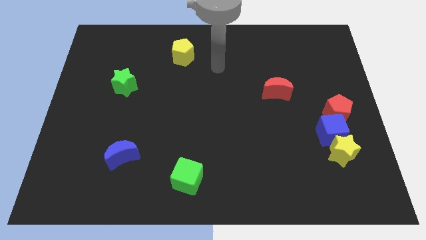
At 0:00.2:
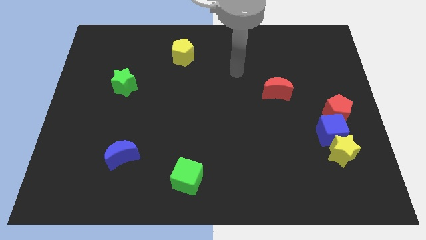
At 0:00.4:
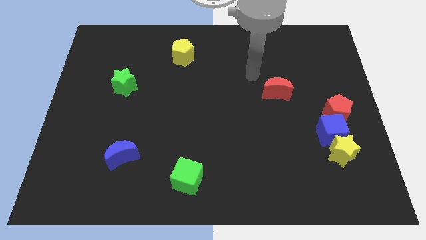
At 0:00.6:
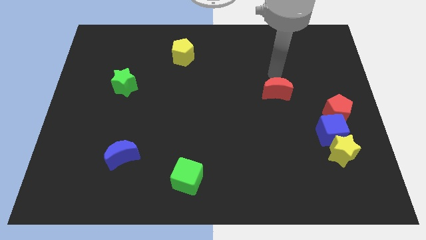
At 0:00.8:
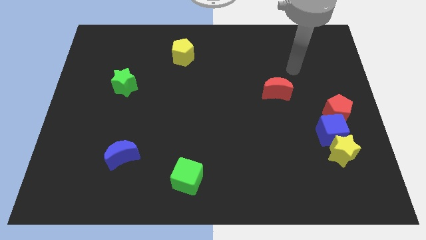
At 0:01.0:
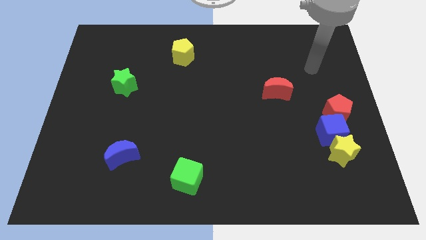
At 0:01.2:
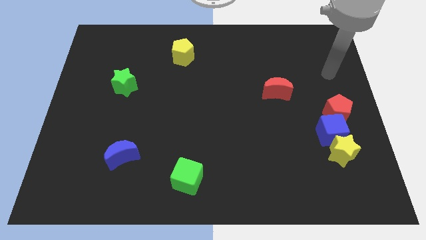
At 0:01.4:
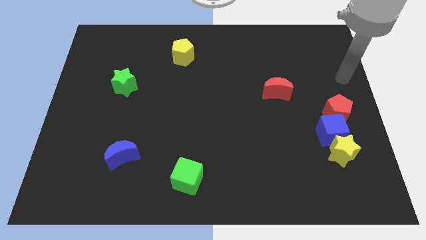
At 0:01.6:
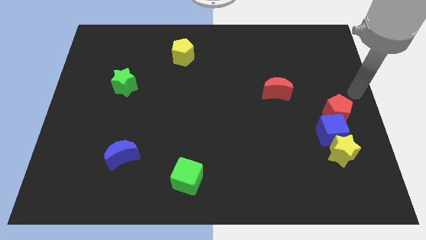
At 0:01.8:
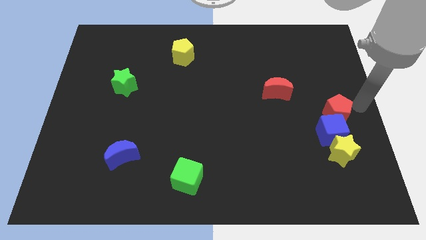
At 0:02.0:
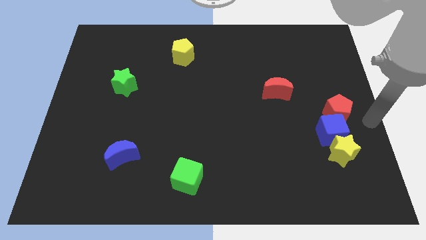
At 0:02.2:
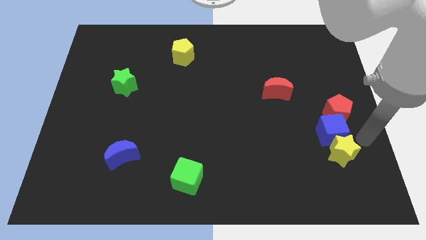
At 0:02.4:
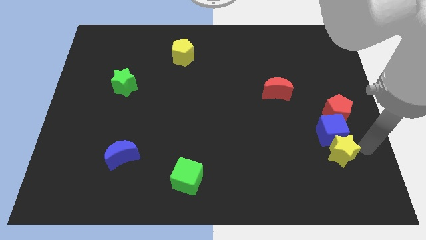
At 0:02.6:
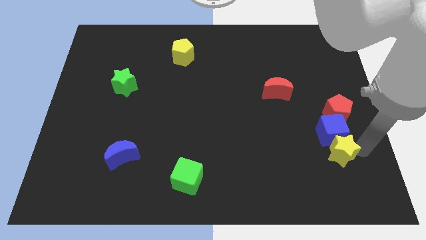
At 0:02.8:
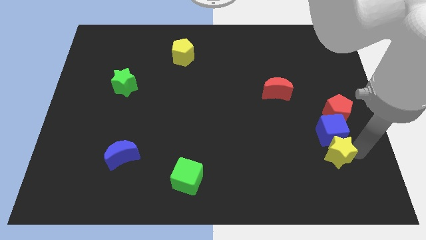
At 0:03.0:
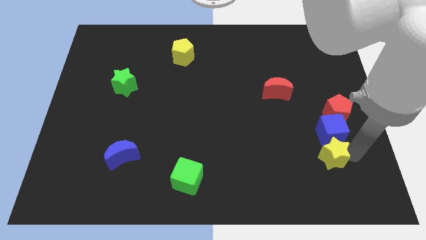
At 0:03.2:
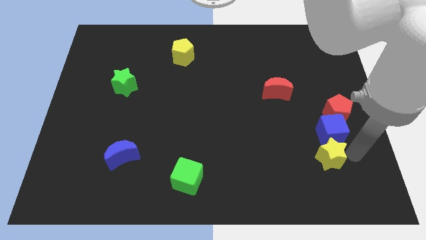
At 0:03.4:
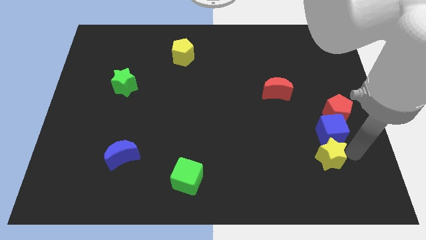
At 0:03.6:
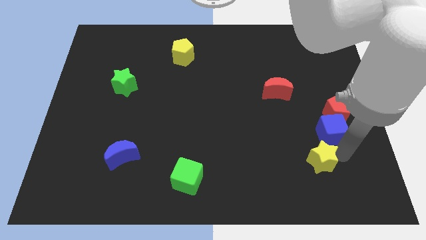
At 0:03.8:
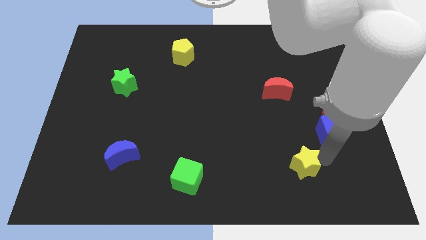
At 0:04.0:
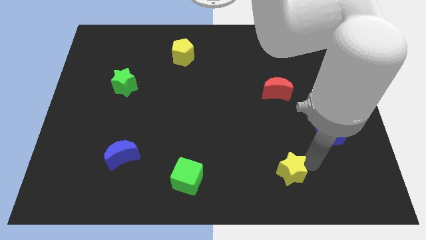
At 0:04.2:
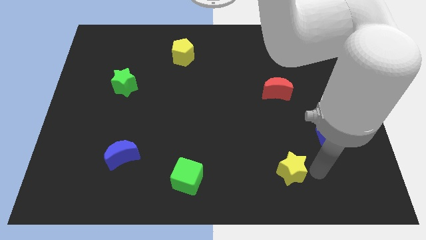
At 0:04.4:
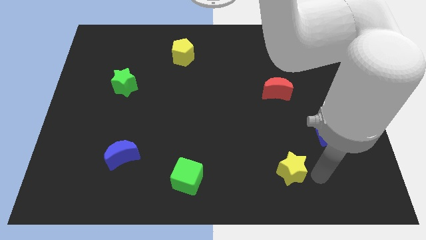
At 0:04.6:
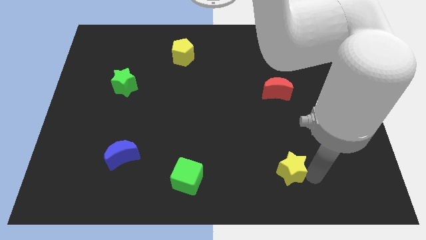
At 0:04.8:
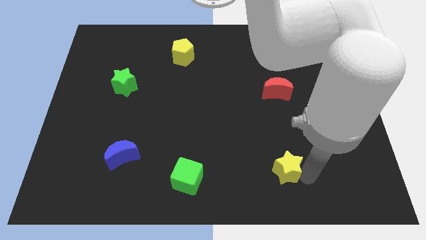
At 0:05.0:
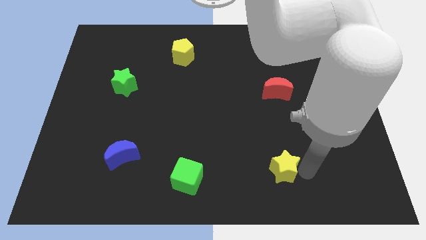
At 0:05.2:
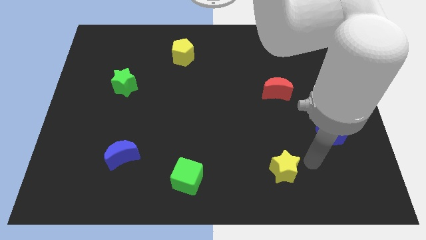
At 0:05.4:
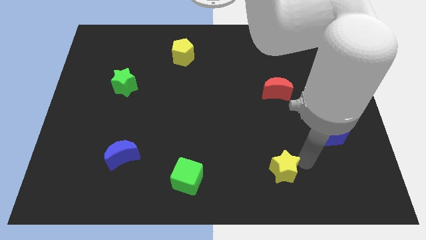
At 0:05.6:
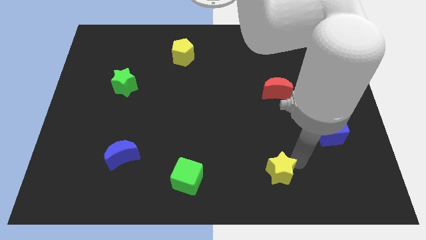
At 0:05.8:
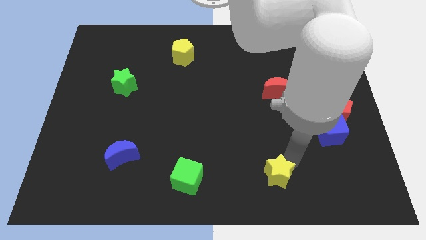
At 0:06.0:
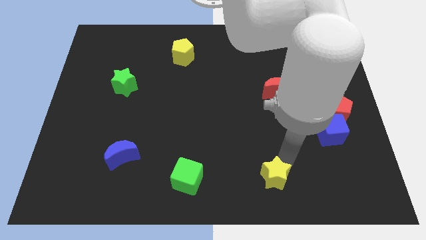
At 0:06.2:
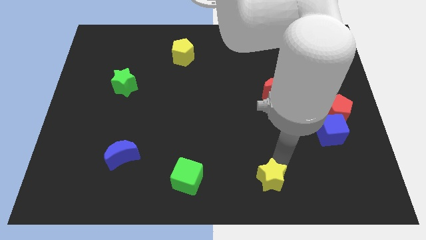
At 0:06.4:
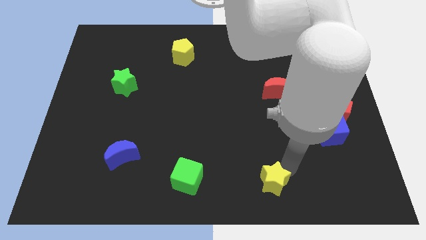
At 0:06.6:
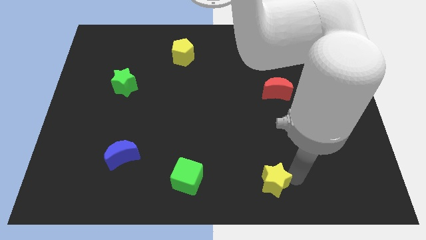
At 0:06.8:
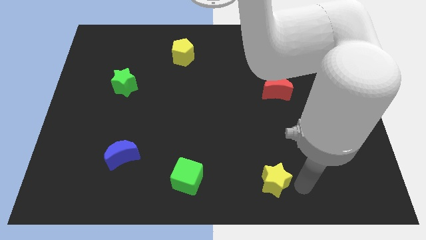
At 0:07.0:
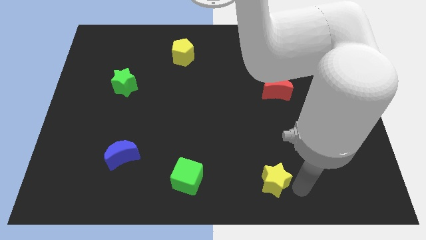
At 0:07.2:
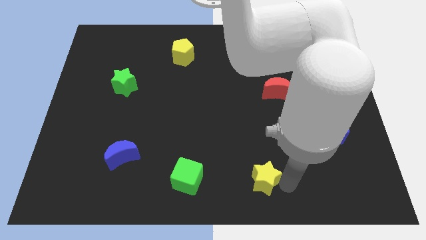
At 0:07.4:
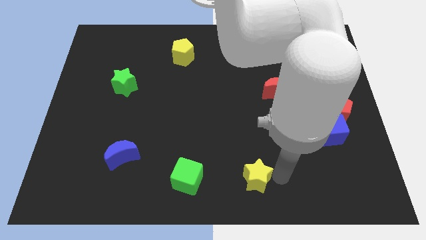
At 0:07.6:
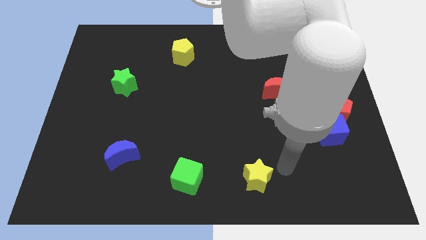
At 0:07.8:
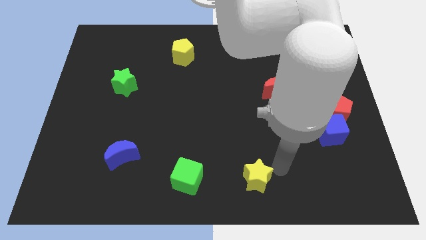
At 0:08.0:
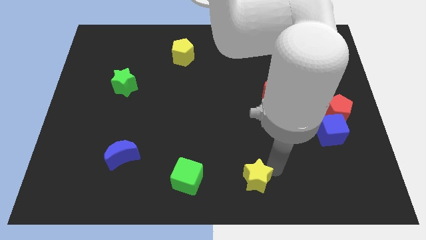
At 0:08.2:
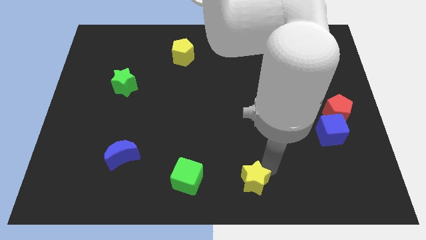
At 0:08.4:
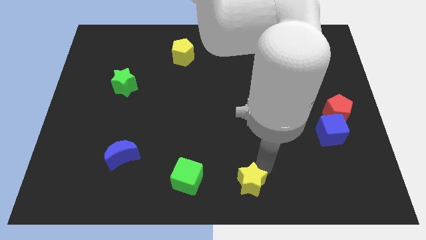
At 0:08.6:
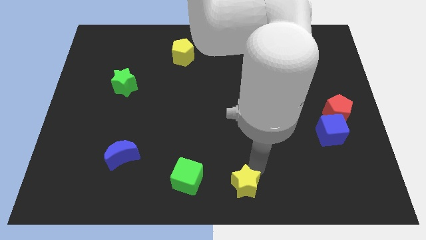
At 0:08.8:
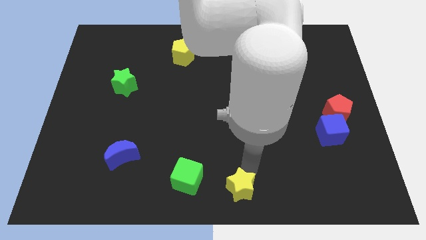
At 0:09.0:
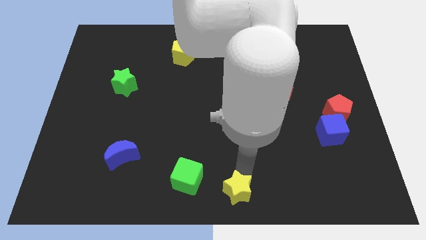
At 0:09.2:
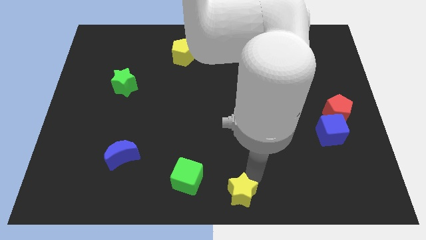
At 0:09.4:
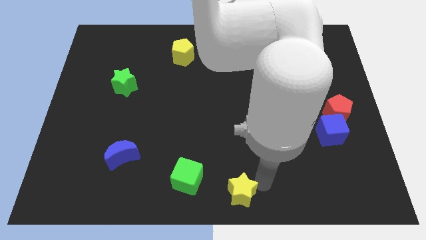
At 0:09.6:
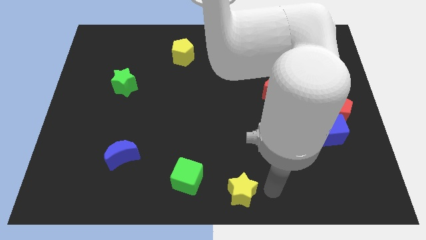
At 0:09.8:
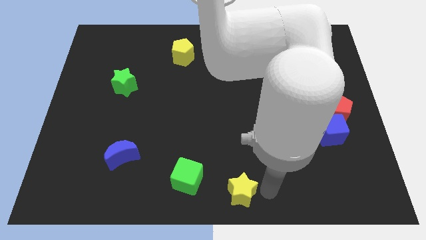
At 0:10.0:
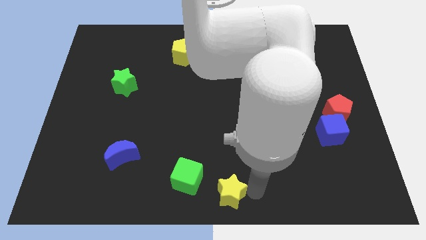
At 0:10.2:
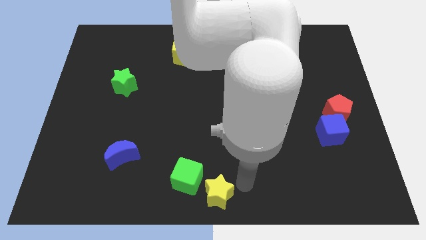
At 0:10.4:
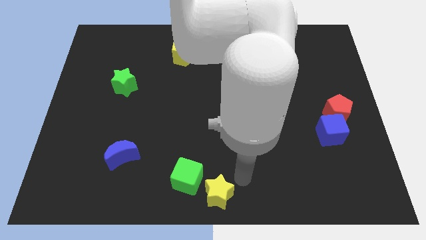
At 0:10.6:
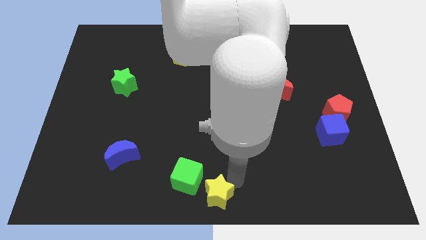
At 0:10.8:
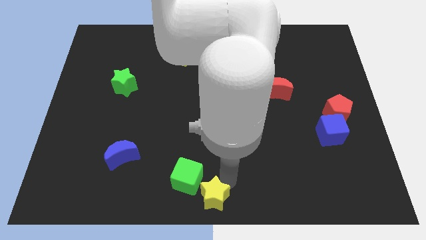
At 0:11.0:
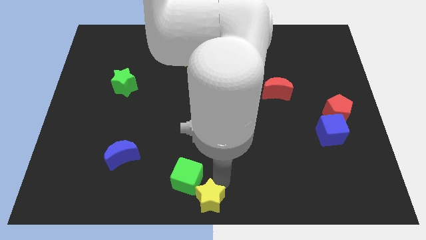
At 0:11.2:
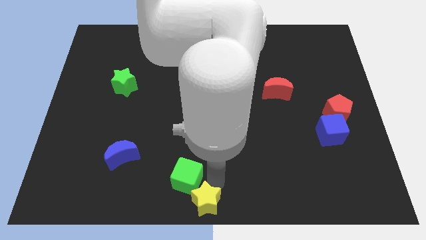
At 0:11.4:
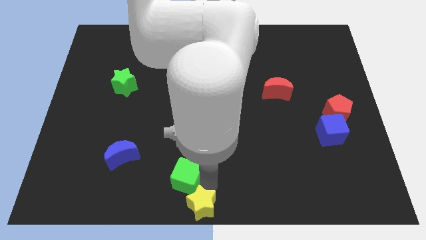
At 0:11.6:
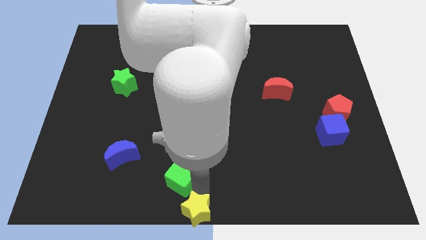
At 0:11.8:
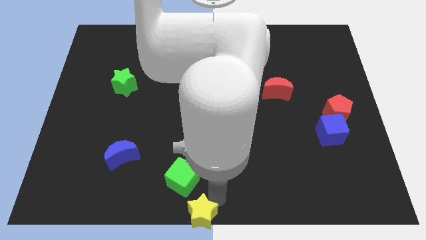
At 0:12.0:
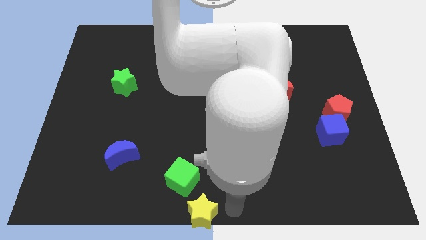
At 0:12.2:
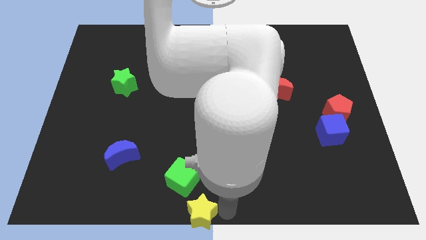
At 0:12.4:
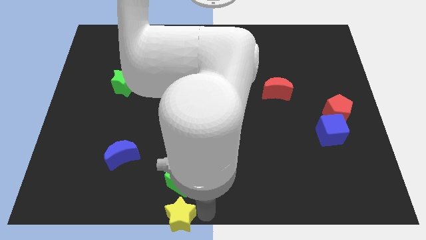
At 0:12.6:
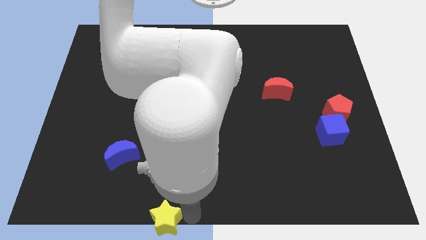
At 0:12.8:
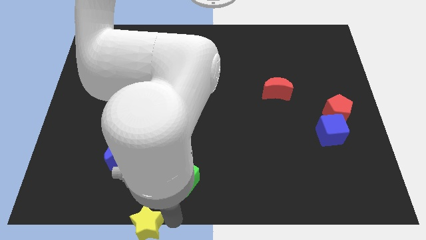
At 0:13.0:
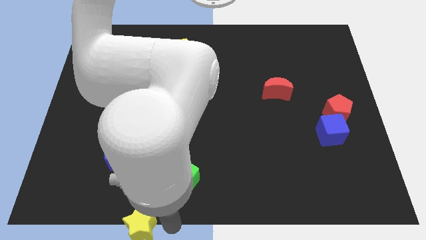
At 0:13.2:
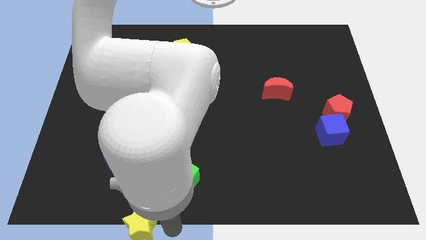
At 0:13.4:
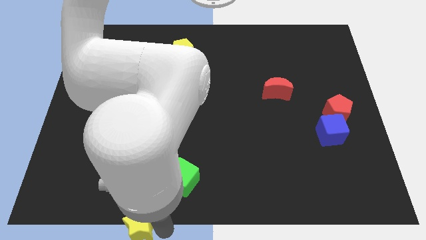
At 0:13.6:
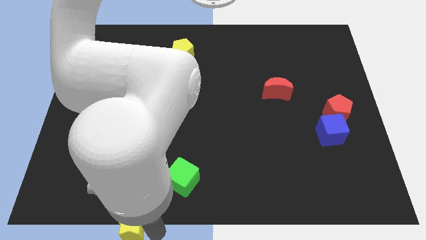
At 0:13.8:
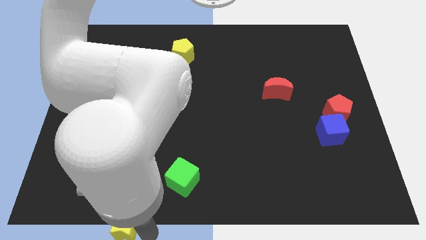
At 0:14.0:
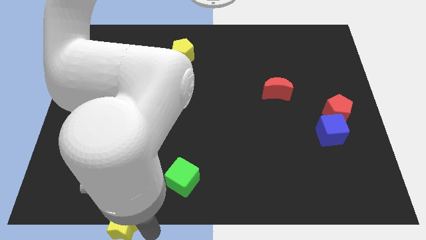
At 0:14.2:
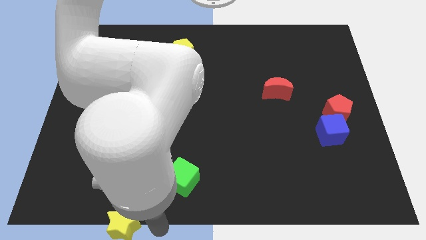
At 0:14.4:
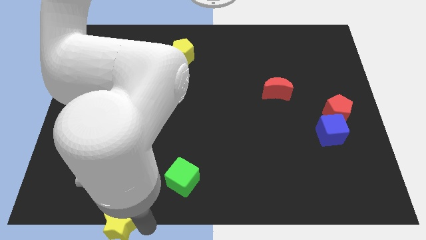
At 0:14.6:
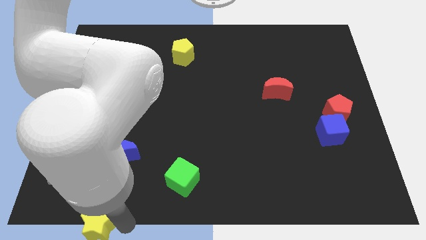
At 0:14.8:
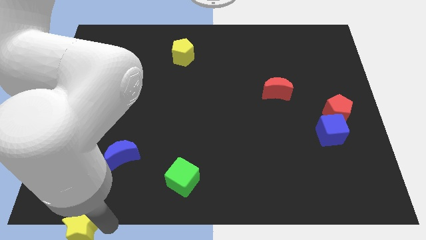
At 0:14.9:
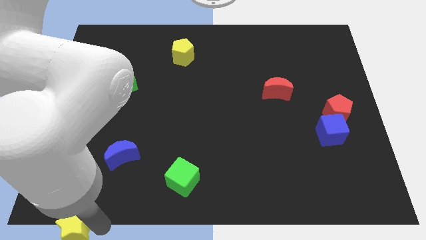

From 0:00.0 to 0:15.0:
put the yellow star to the bottom left
